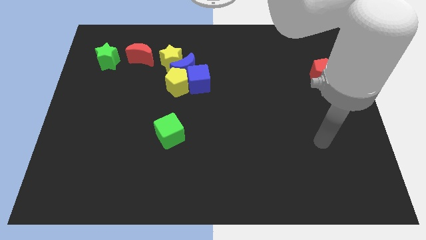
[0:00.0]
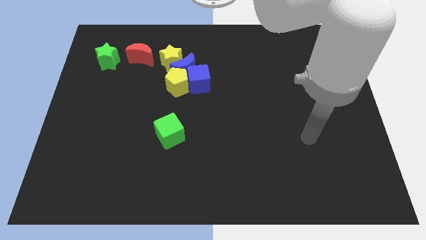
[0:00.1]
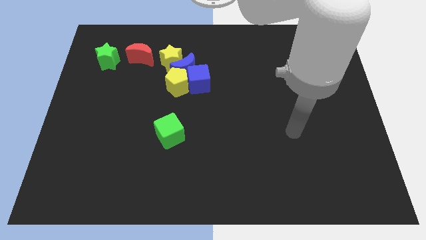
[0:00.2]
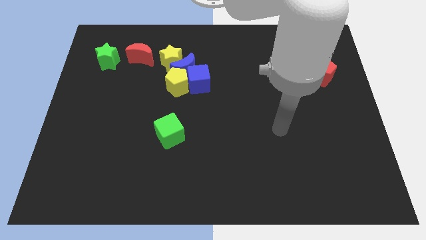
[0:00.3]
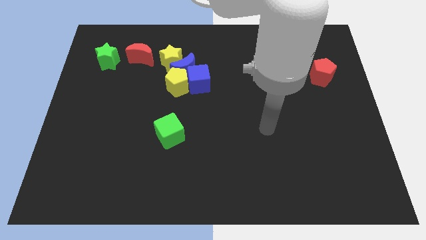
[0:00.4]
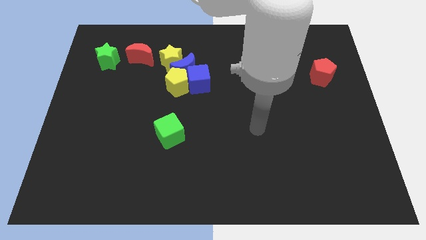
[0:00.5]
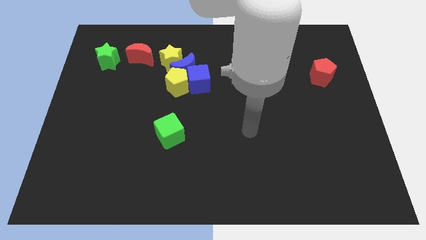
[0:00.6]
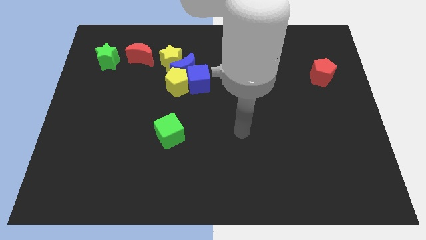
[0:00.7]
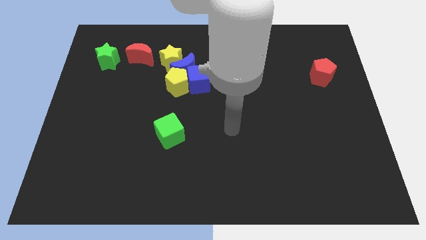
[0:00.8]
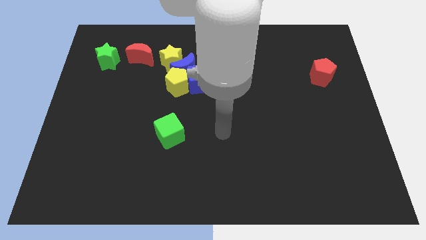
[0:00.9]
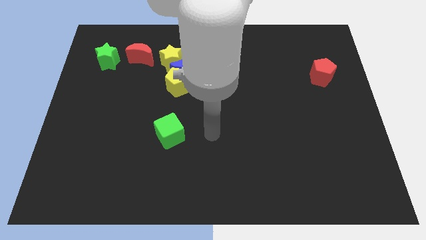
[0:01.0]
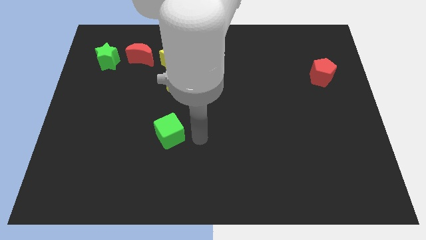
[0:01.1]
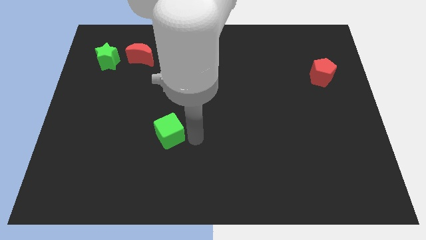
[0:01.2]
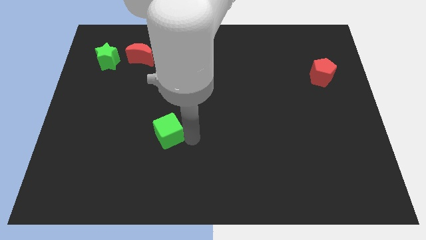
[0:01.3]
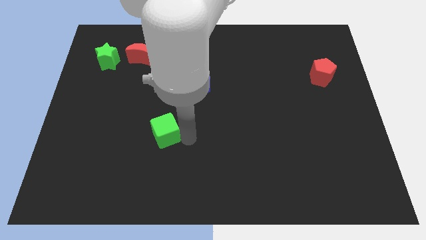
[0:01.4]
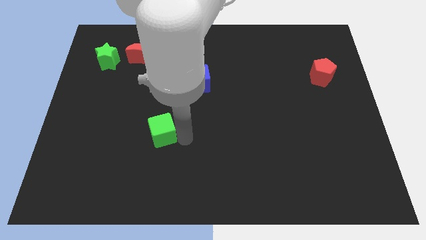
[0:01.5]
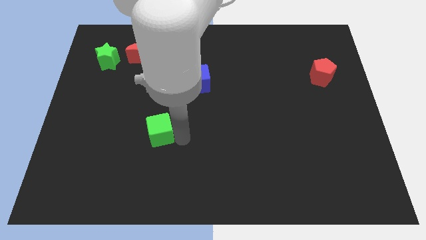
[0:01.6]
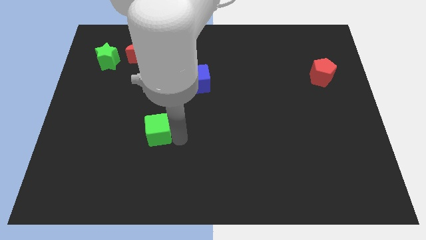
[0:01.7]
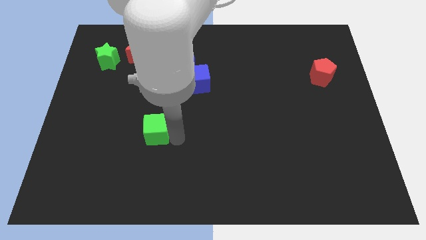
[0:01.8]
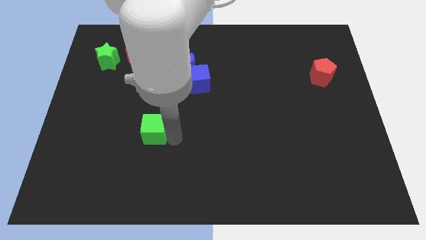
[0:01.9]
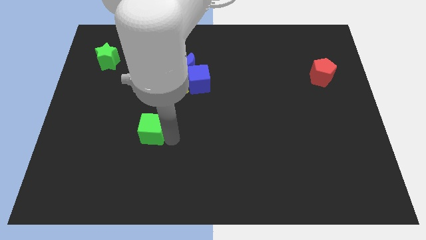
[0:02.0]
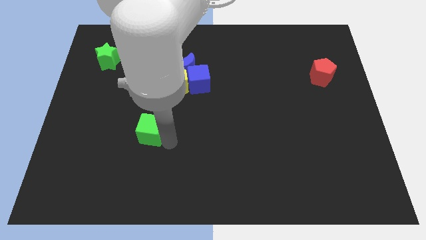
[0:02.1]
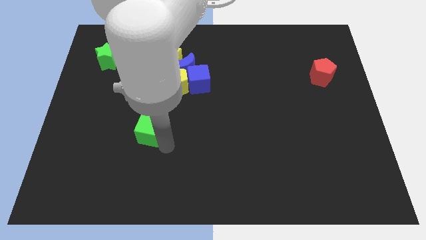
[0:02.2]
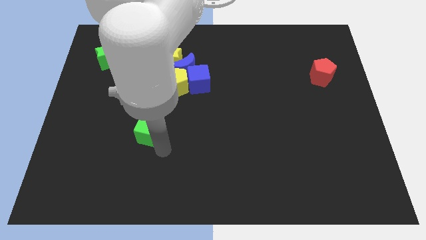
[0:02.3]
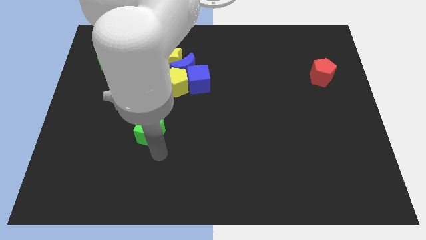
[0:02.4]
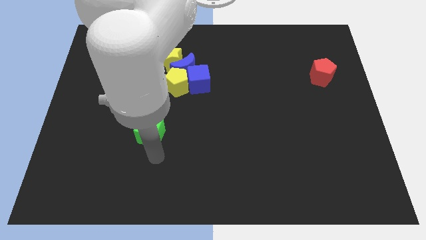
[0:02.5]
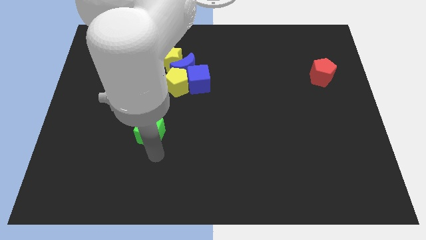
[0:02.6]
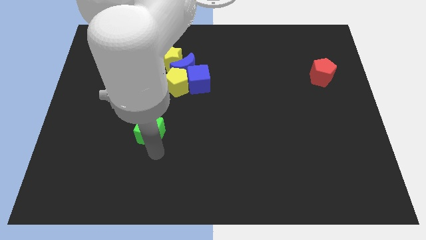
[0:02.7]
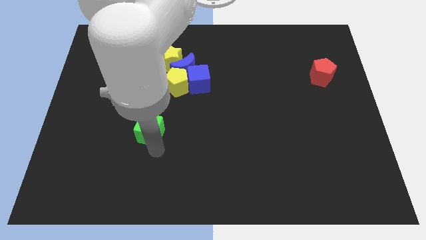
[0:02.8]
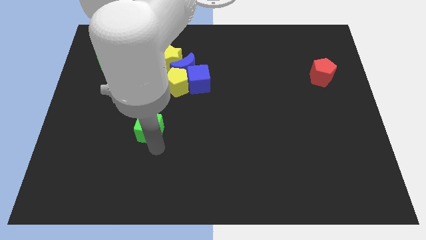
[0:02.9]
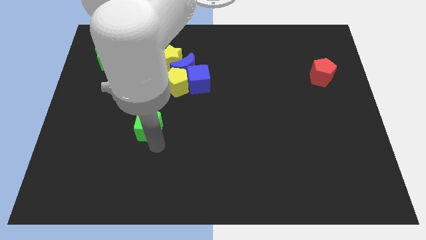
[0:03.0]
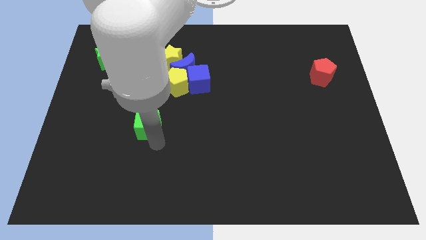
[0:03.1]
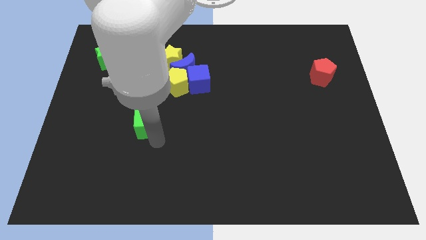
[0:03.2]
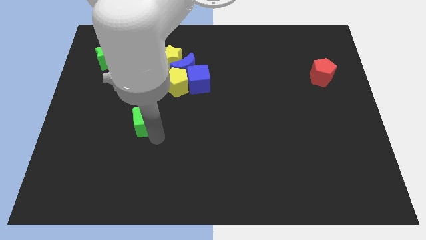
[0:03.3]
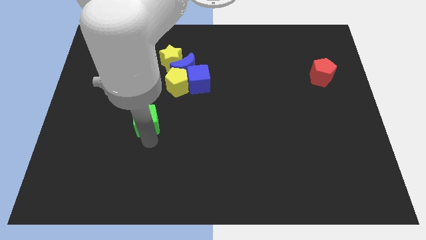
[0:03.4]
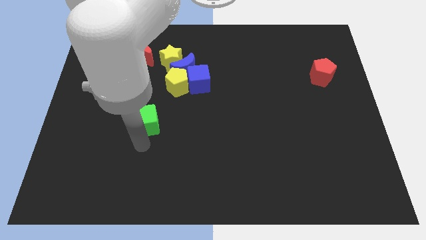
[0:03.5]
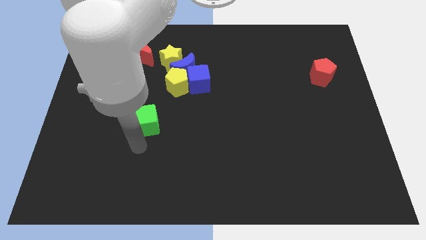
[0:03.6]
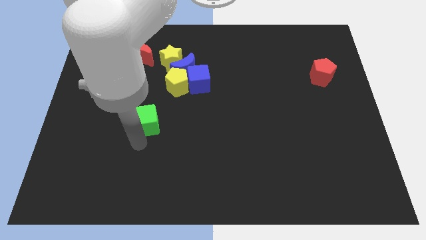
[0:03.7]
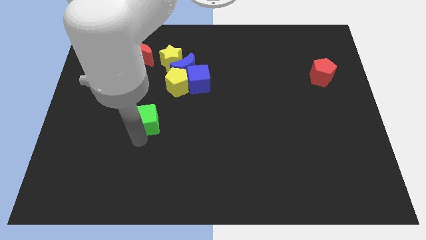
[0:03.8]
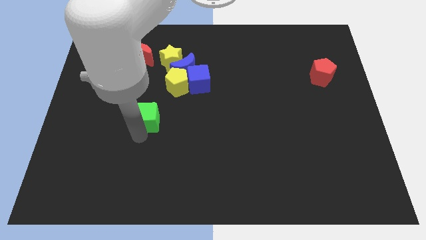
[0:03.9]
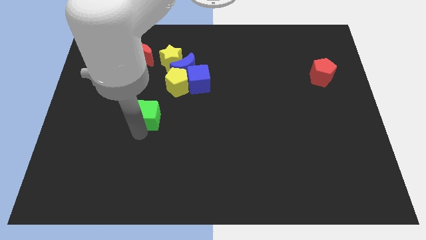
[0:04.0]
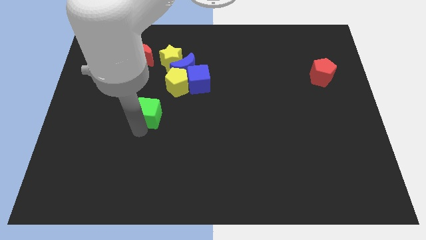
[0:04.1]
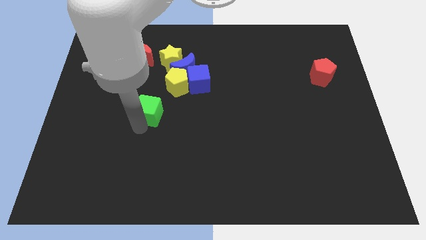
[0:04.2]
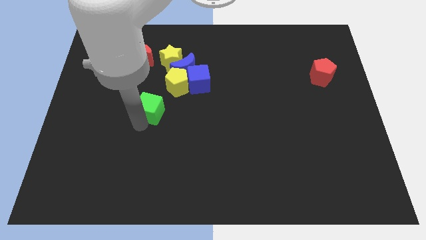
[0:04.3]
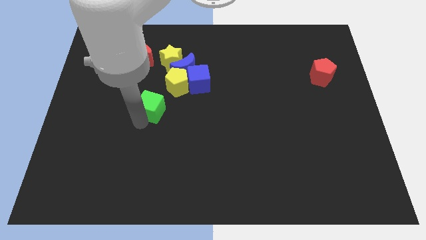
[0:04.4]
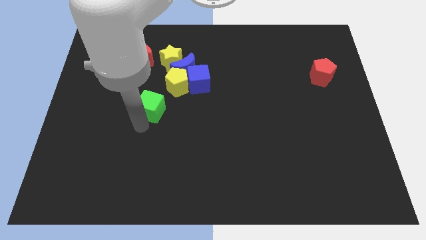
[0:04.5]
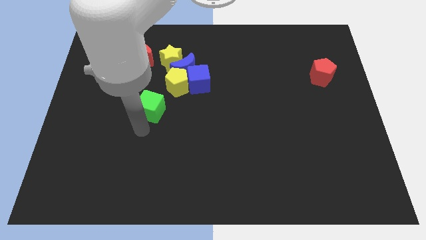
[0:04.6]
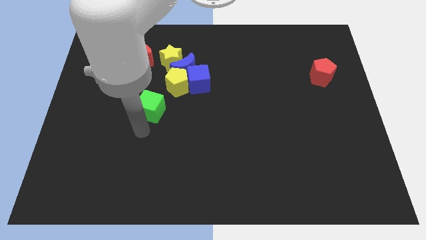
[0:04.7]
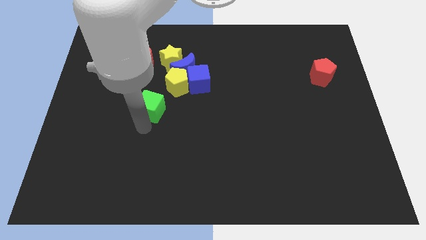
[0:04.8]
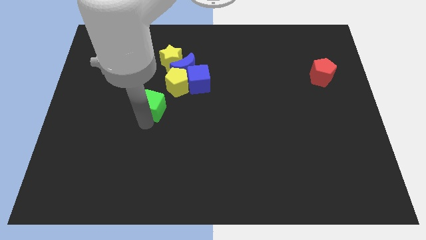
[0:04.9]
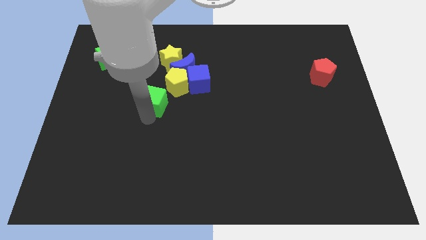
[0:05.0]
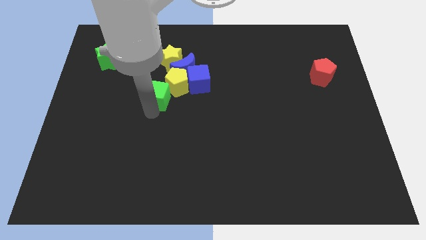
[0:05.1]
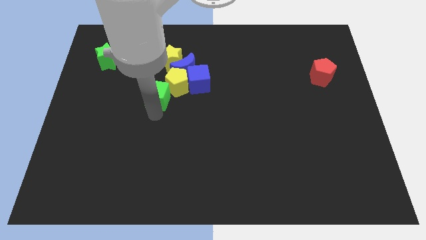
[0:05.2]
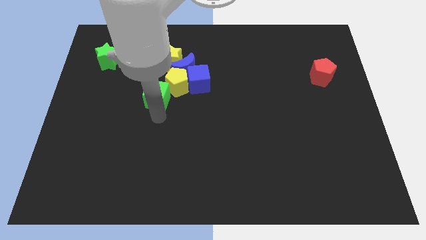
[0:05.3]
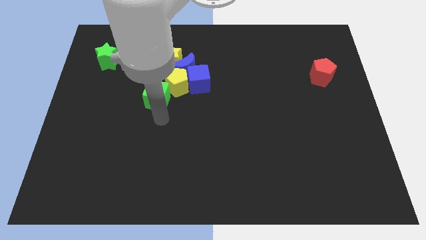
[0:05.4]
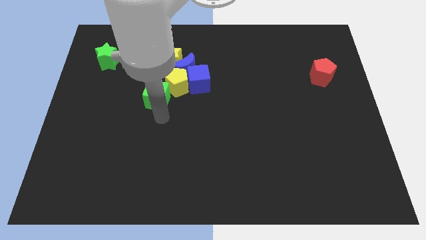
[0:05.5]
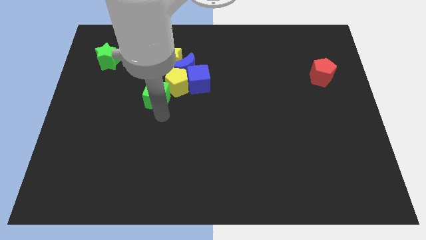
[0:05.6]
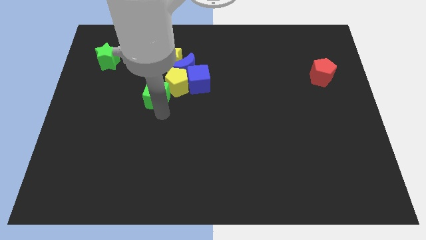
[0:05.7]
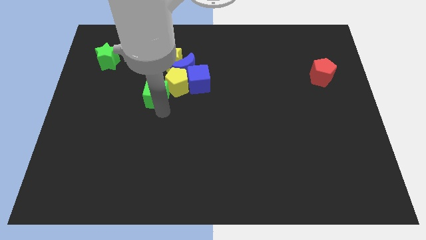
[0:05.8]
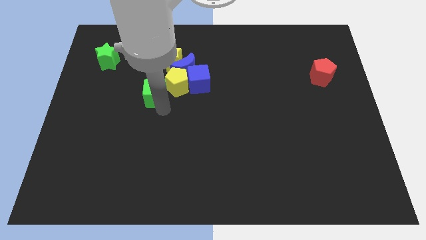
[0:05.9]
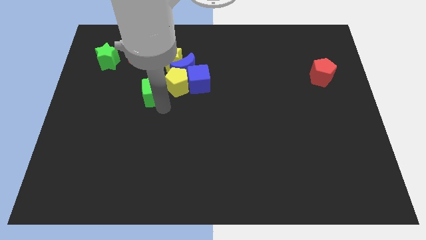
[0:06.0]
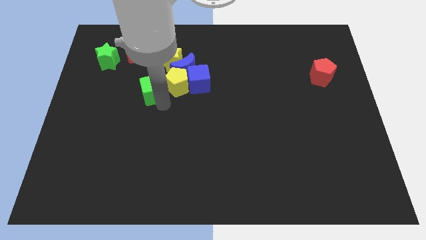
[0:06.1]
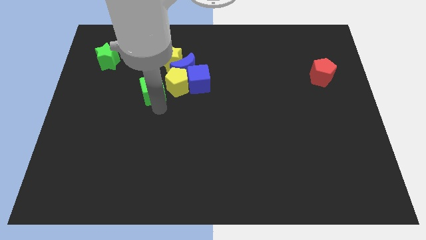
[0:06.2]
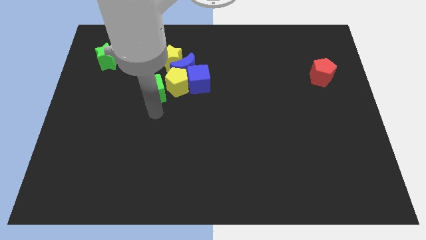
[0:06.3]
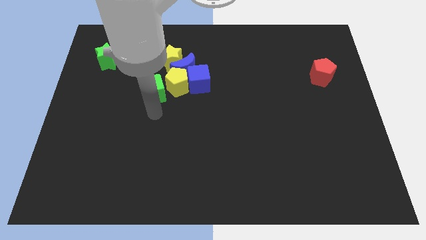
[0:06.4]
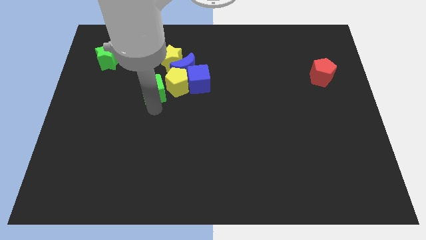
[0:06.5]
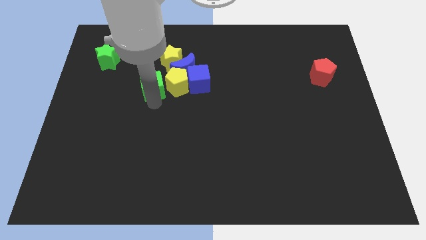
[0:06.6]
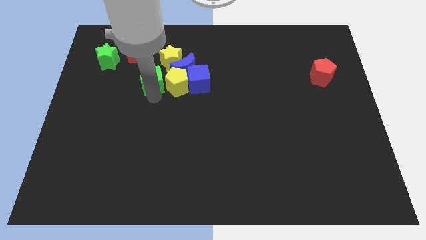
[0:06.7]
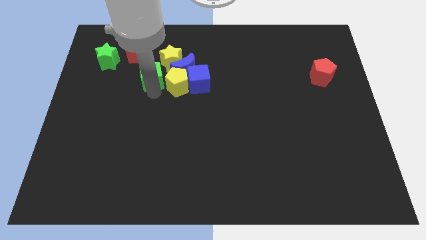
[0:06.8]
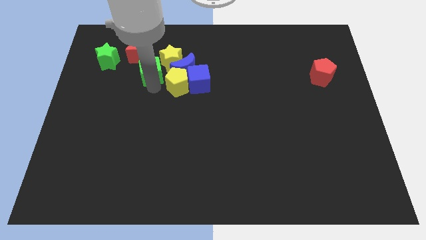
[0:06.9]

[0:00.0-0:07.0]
push the green cube to the right side of the green star

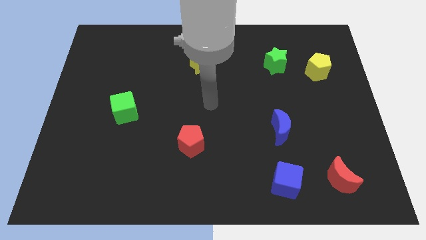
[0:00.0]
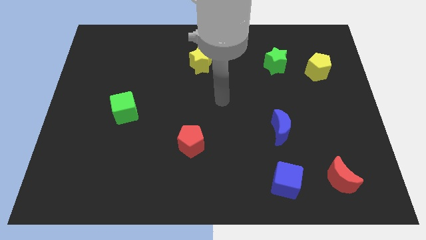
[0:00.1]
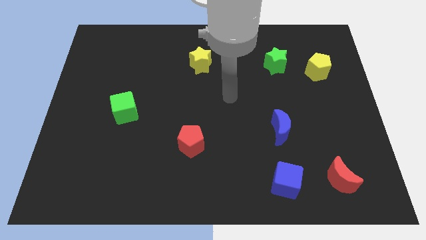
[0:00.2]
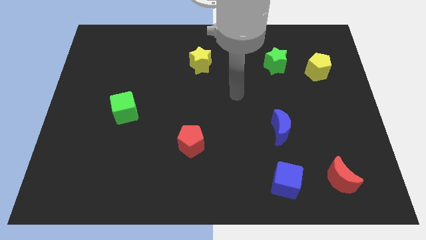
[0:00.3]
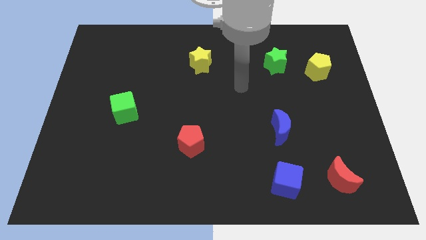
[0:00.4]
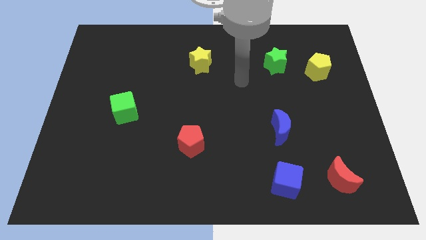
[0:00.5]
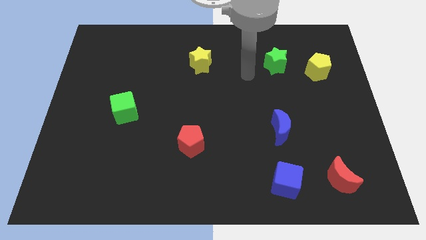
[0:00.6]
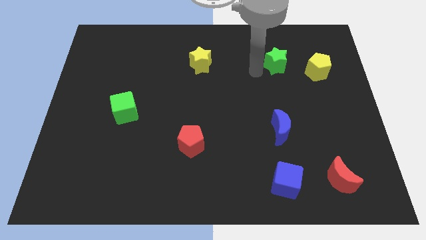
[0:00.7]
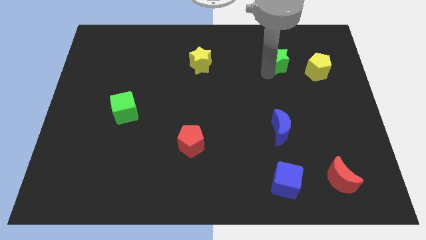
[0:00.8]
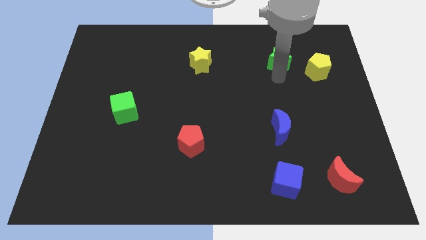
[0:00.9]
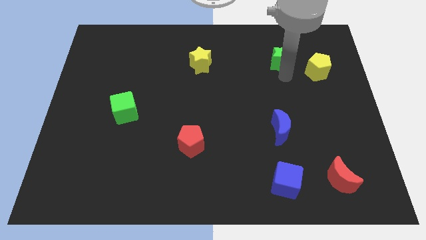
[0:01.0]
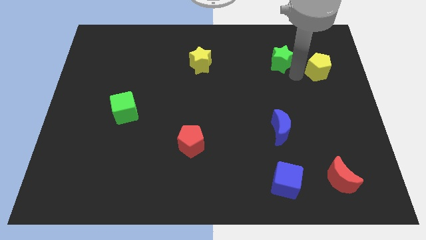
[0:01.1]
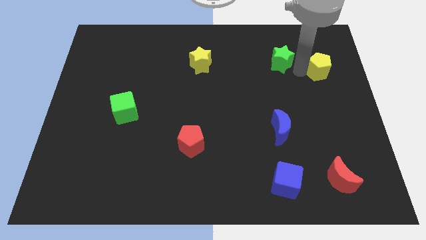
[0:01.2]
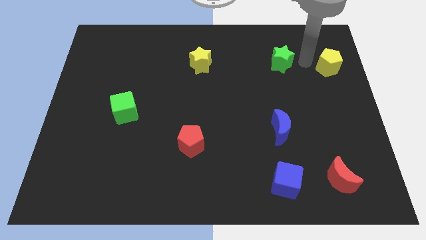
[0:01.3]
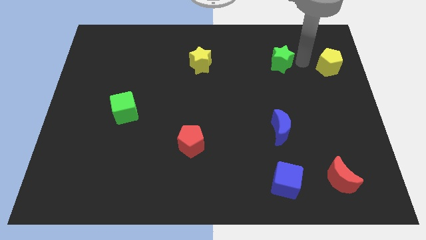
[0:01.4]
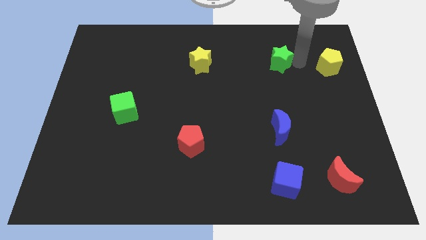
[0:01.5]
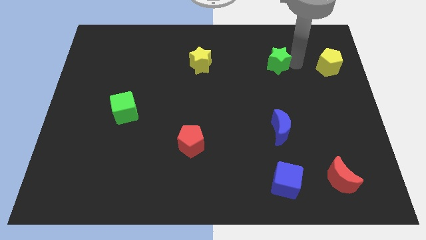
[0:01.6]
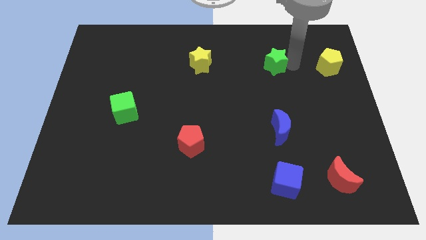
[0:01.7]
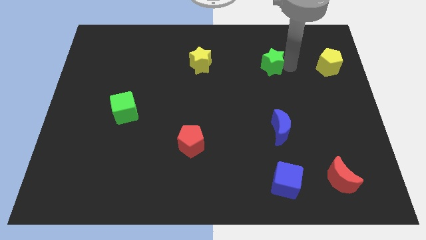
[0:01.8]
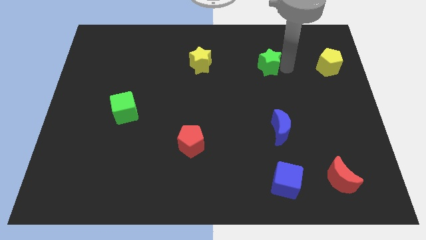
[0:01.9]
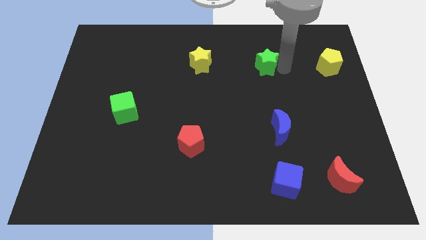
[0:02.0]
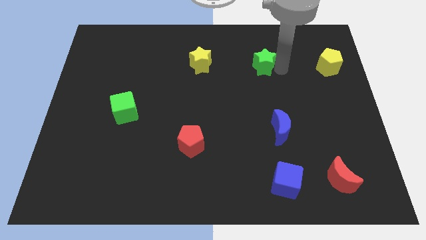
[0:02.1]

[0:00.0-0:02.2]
move the green star to the right of the yellow star
